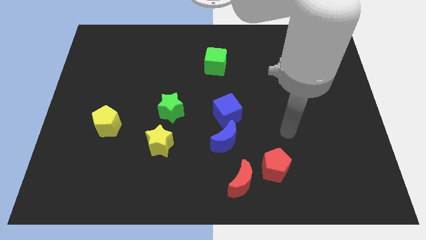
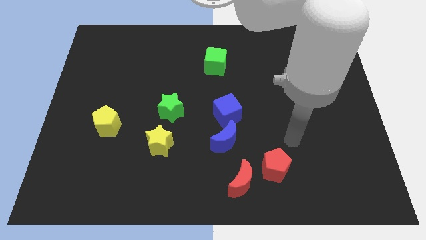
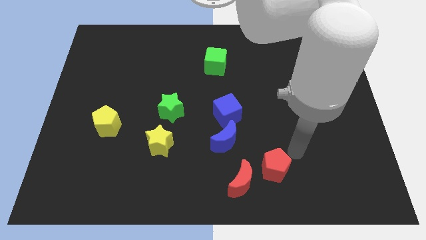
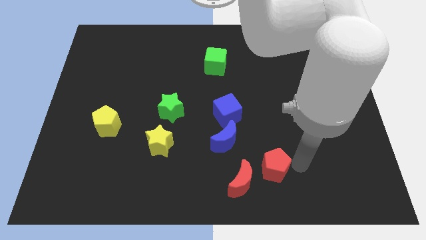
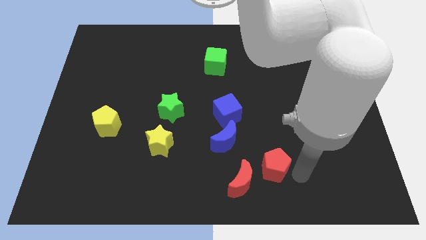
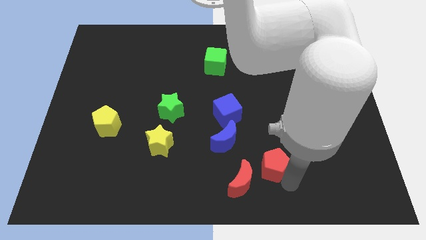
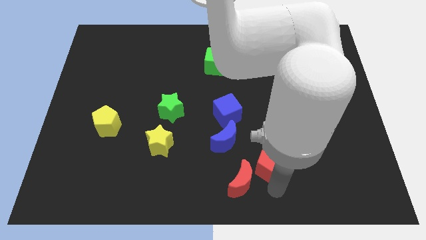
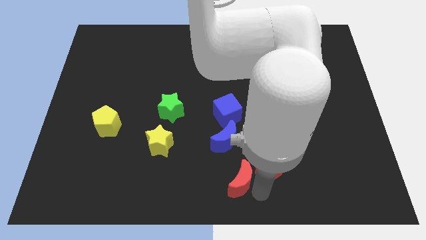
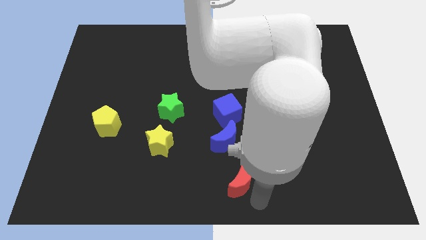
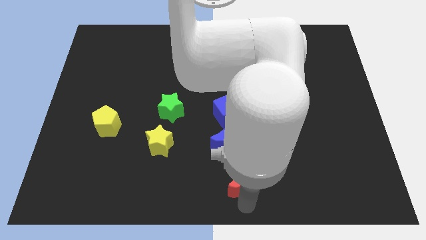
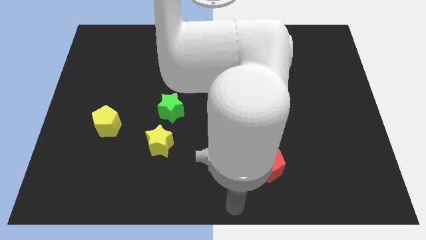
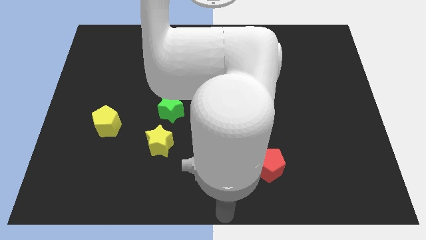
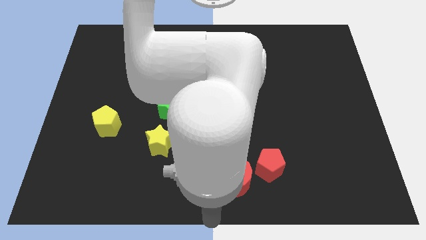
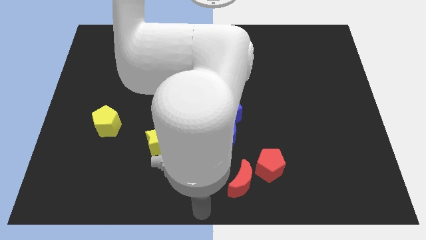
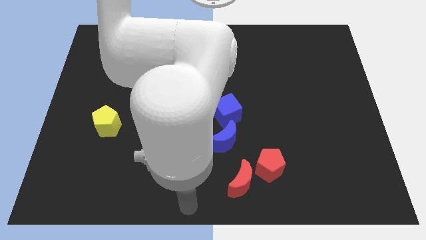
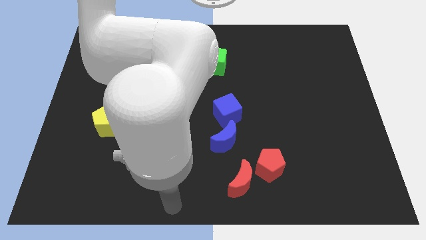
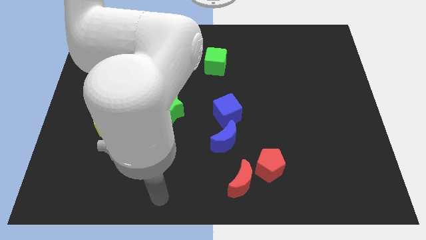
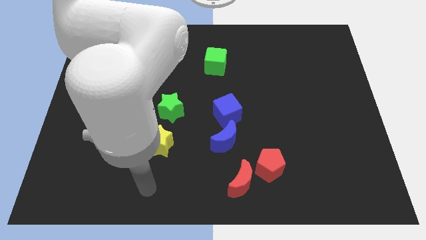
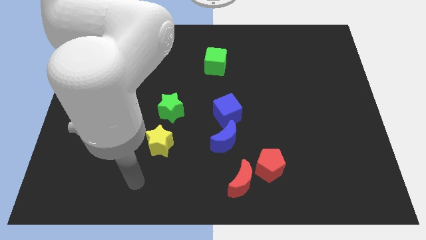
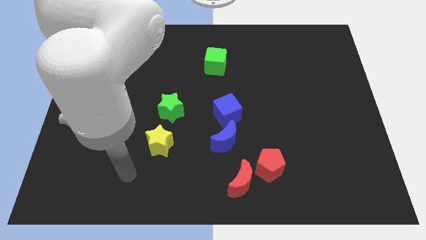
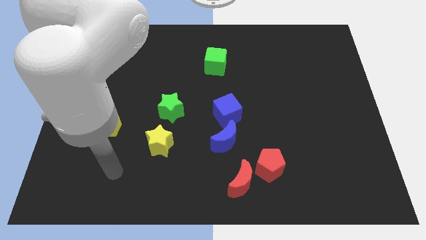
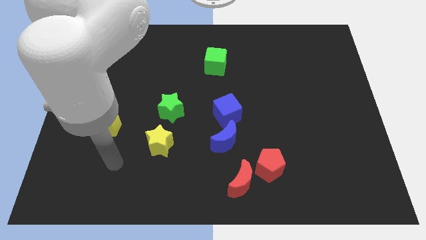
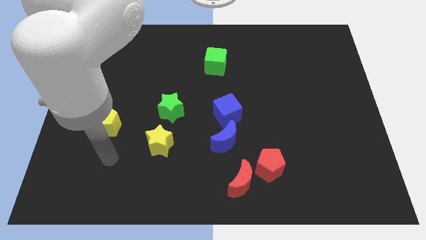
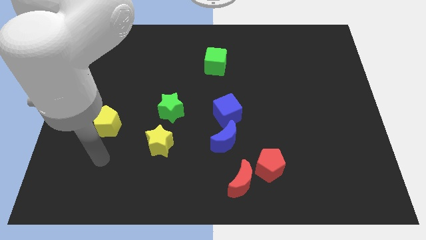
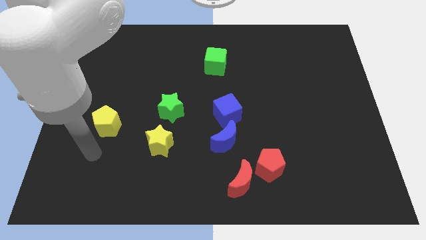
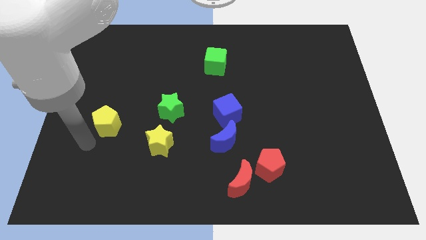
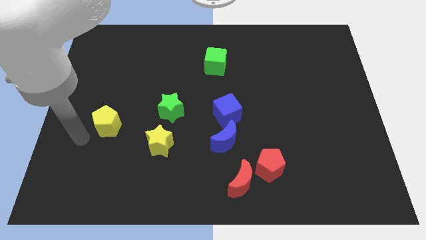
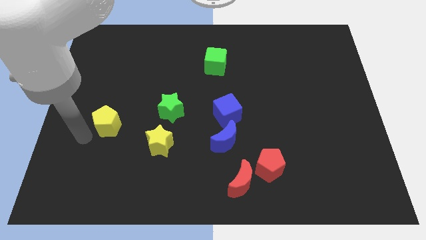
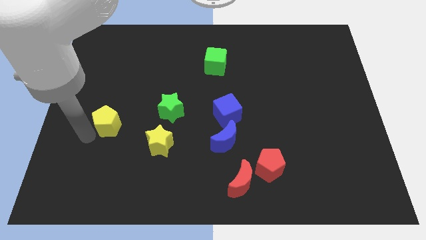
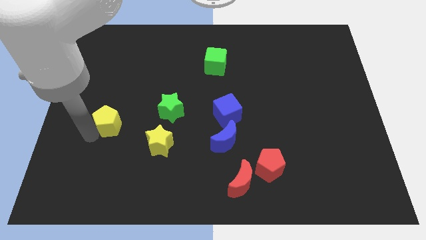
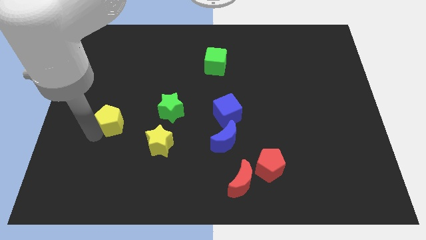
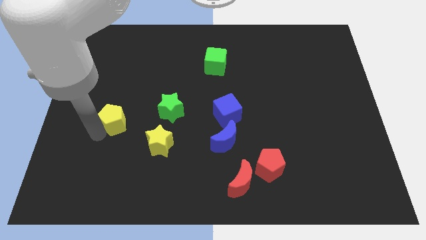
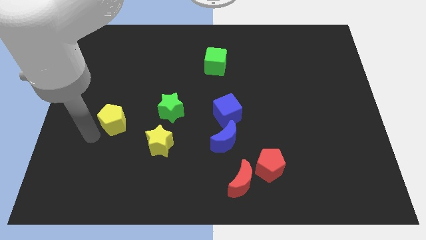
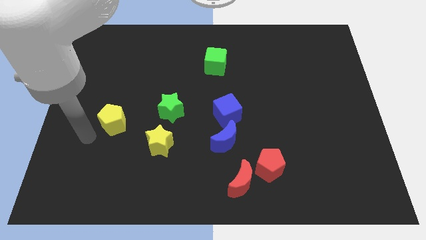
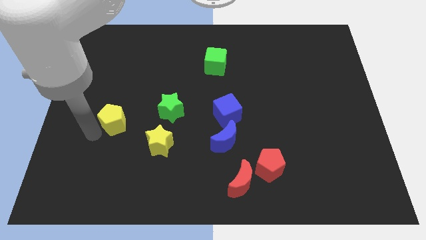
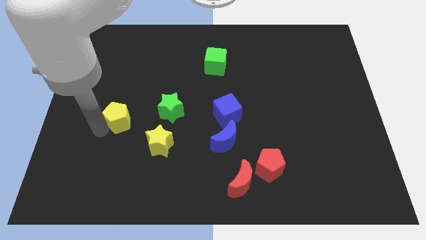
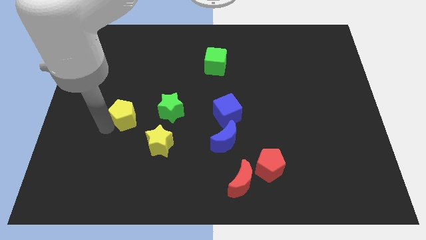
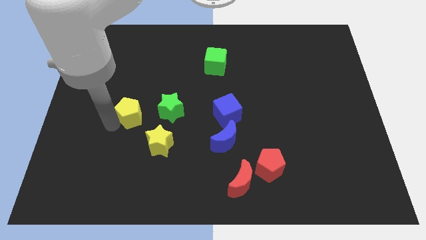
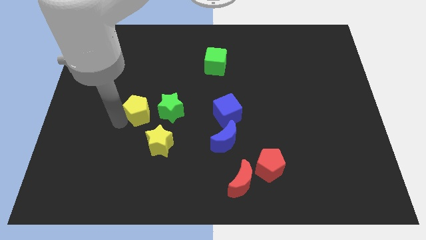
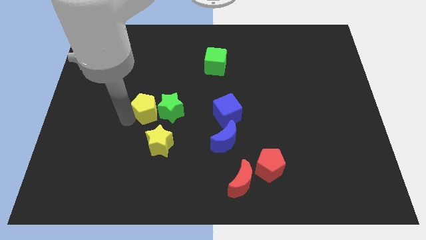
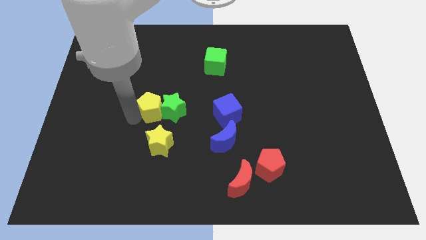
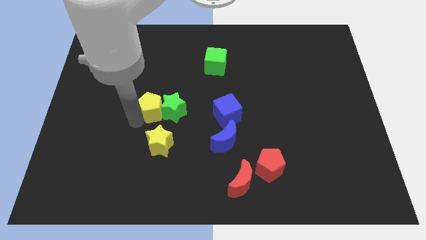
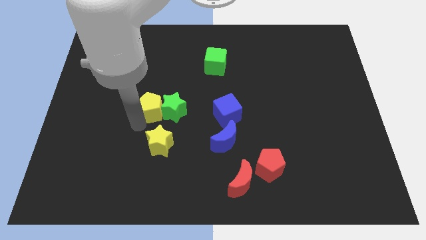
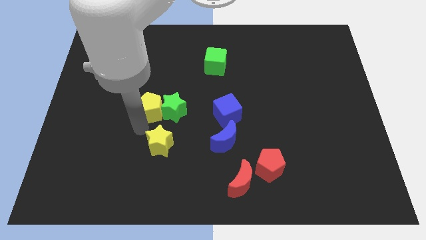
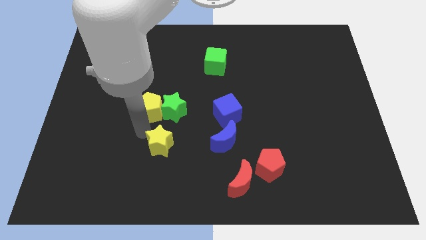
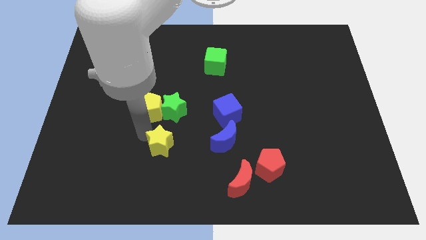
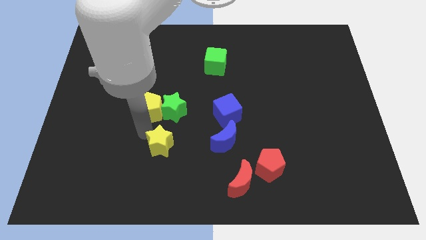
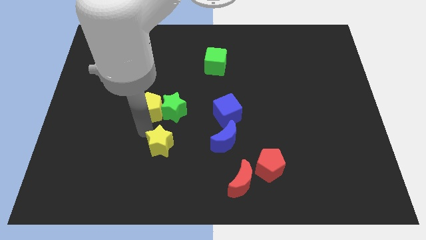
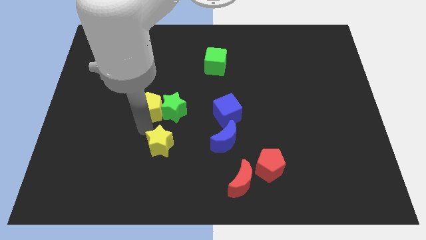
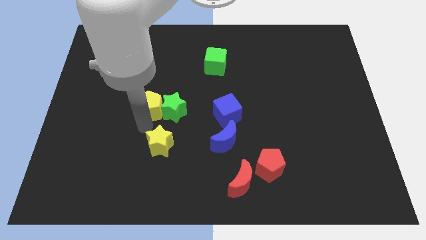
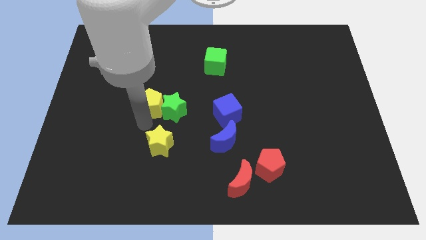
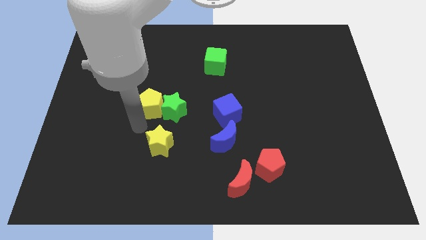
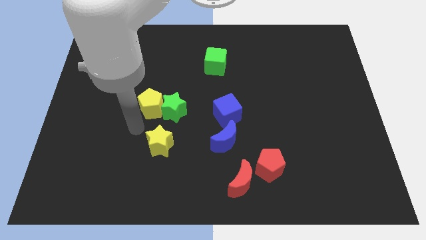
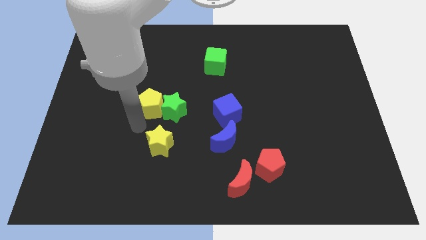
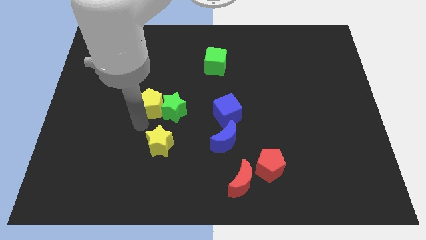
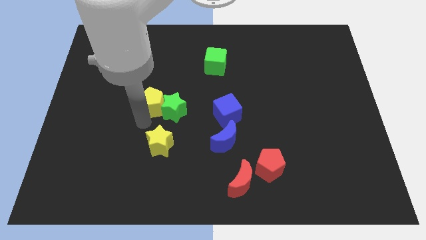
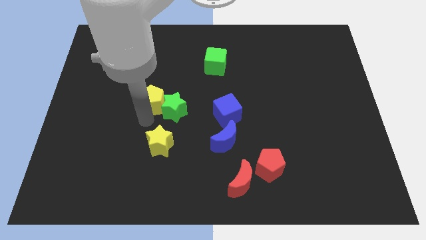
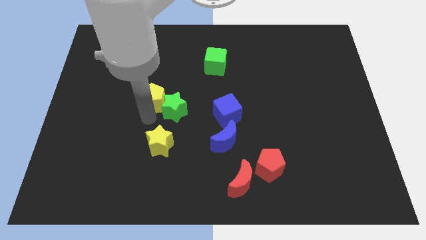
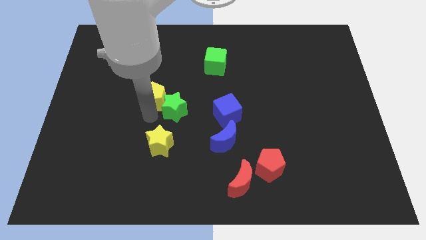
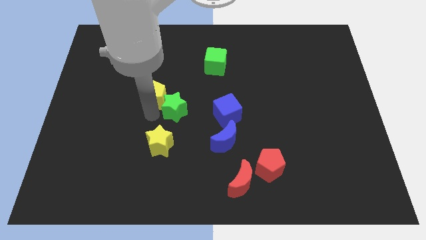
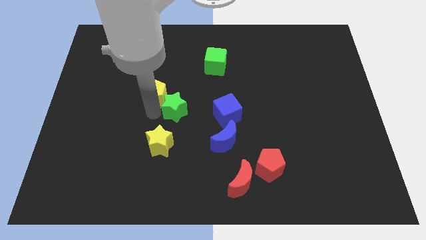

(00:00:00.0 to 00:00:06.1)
slide the yellow pentagon to the top of the green star
